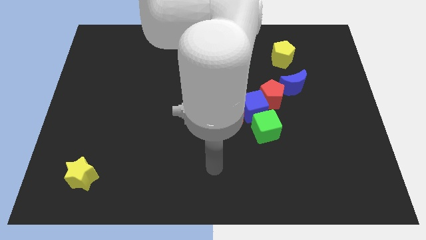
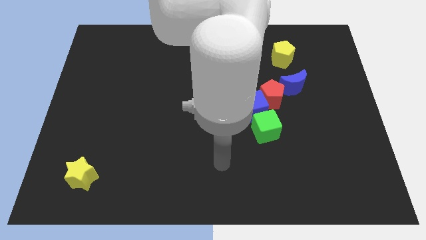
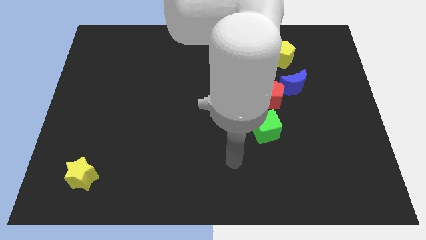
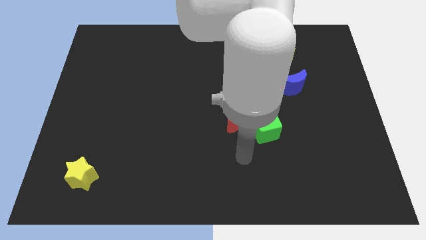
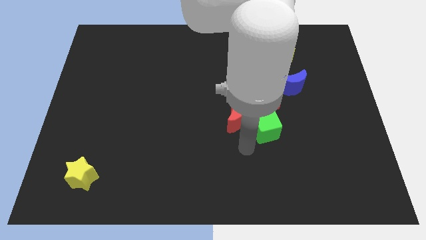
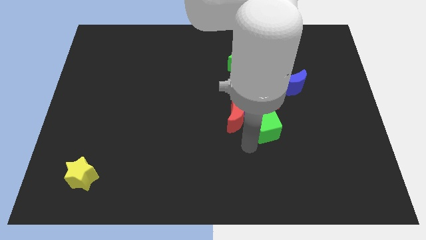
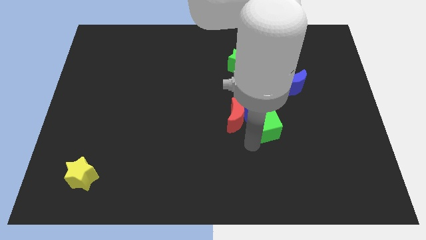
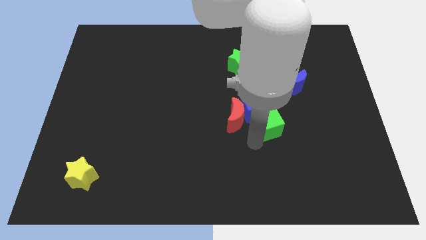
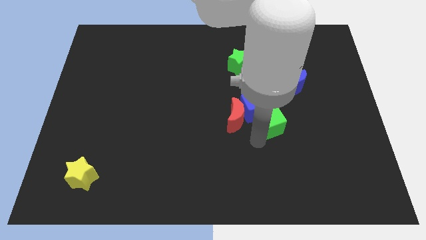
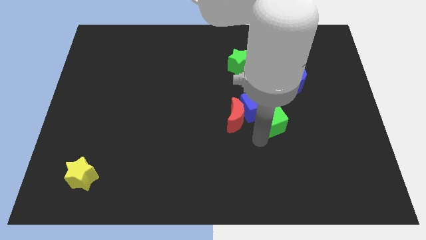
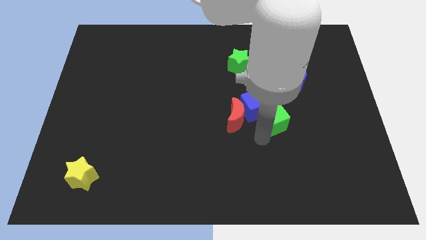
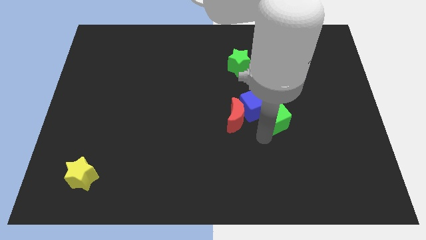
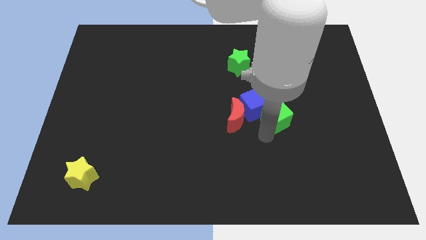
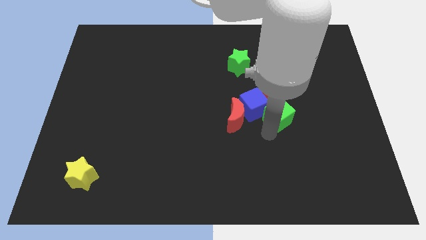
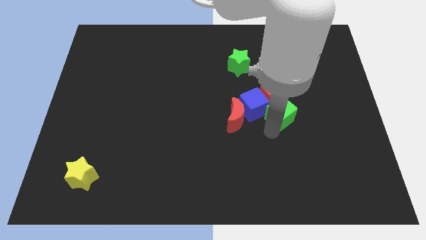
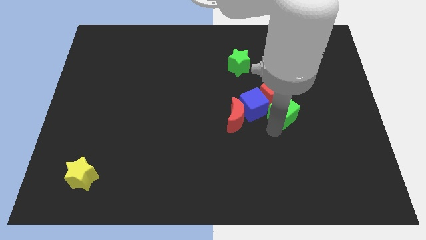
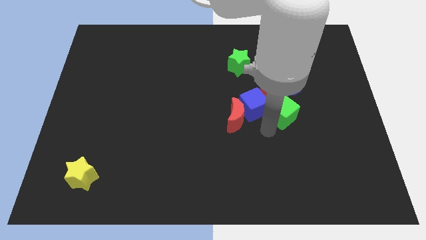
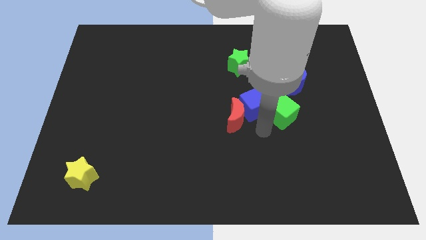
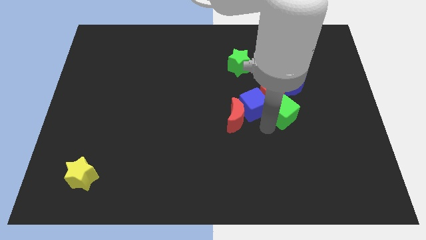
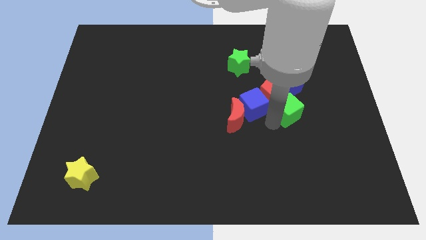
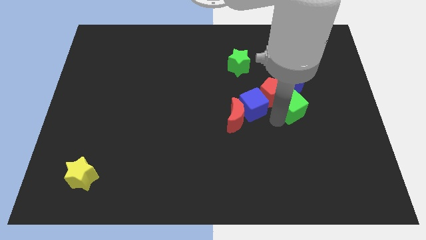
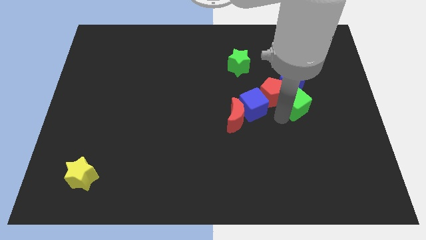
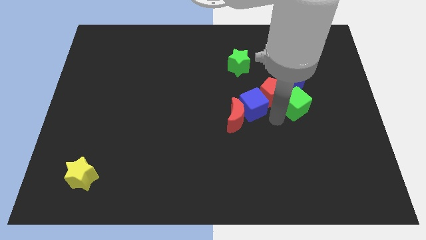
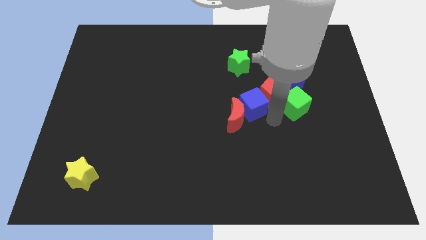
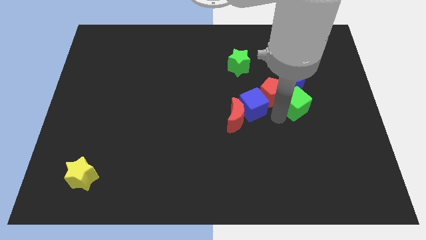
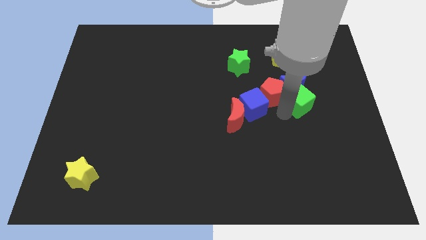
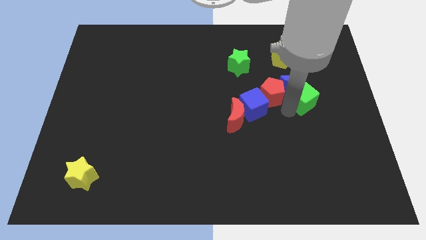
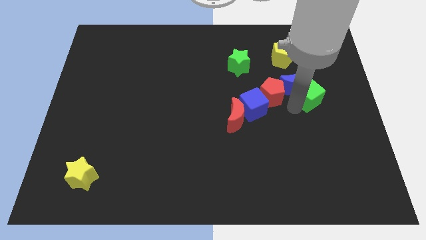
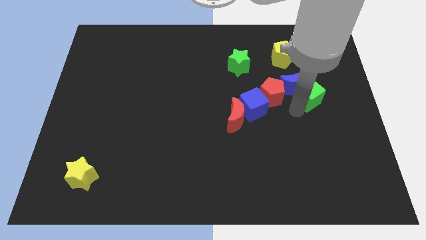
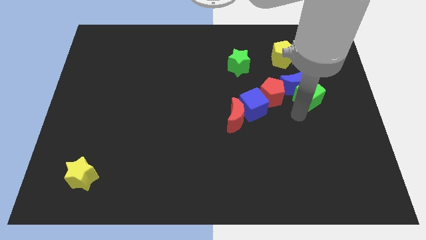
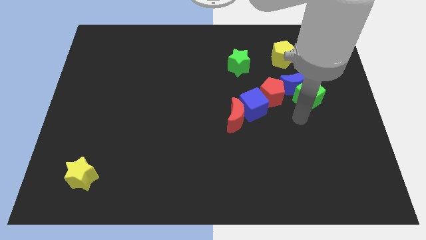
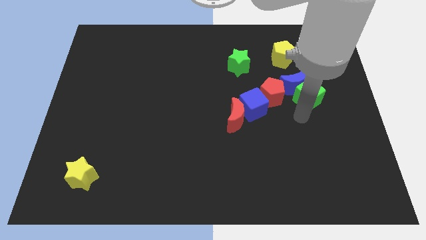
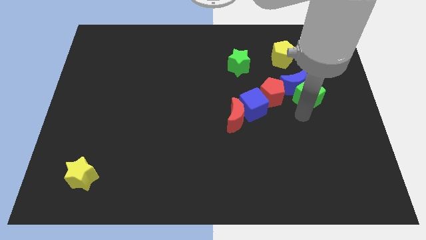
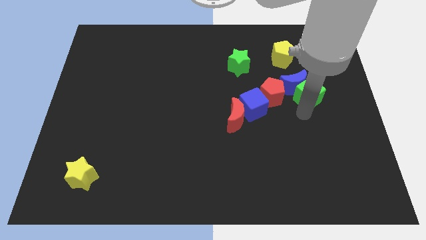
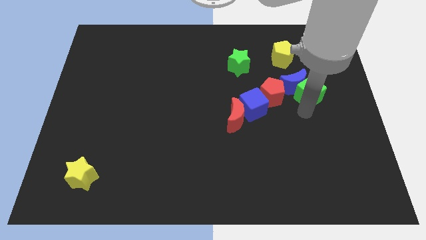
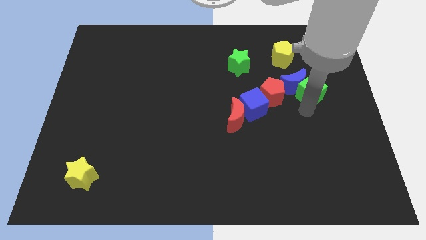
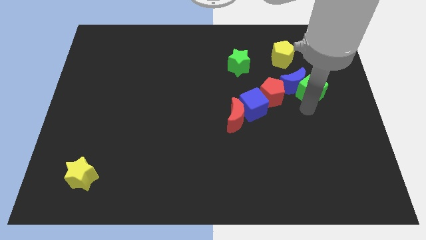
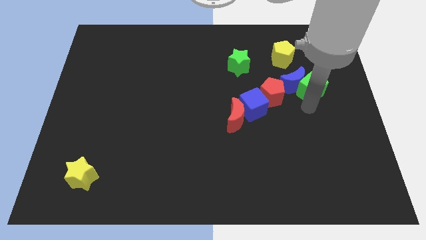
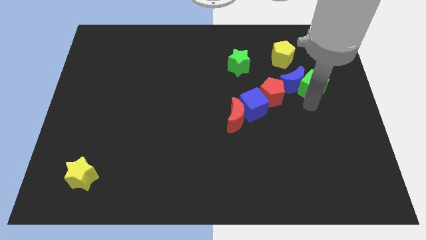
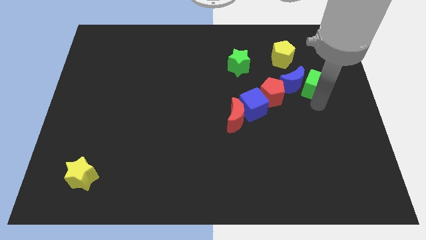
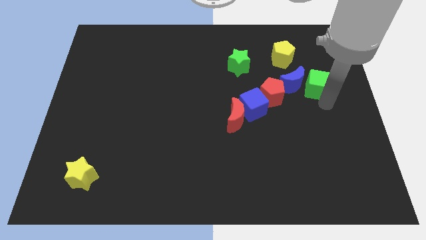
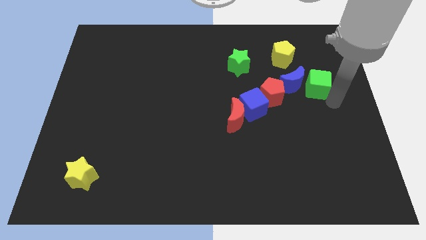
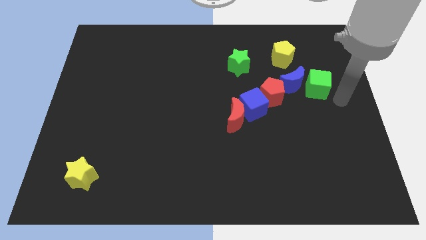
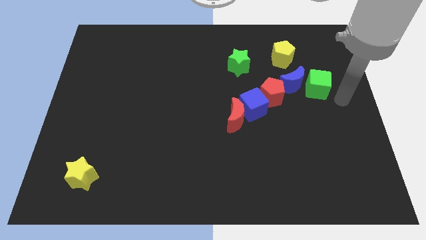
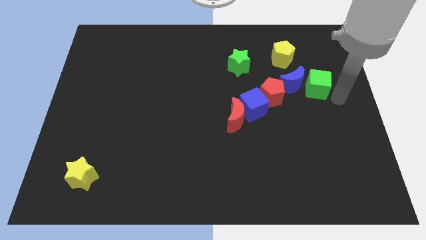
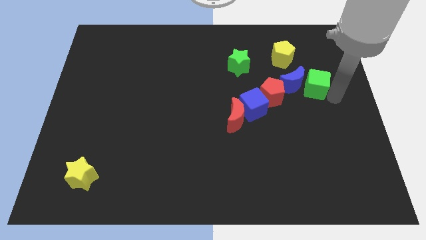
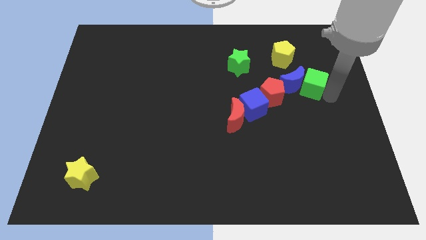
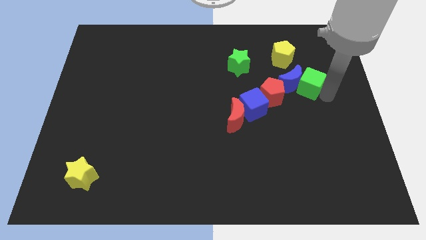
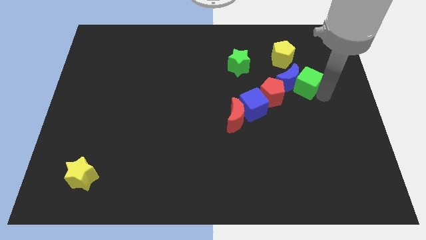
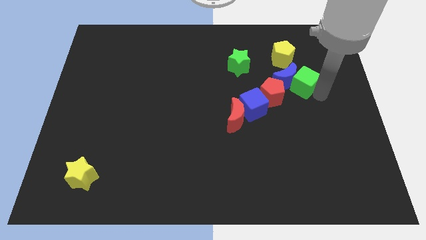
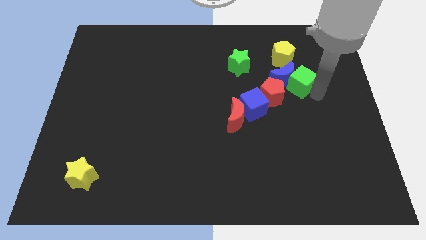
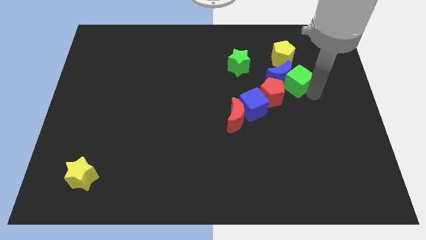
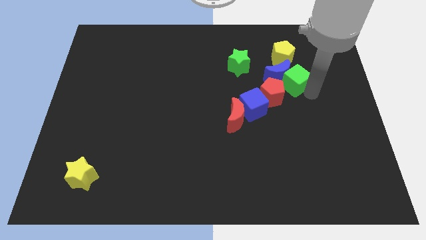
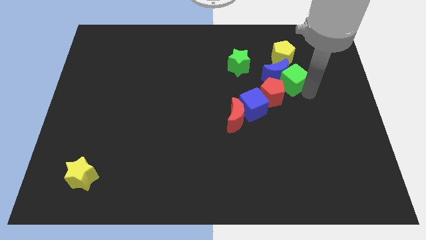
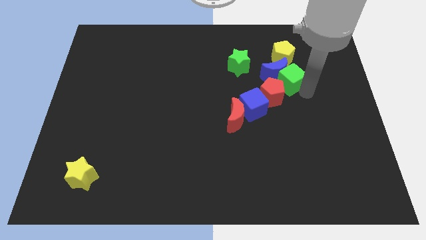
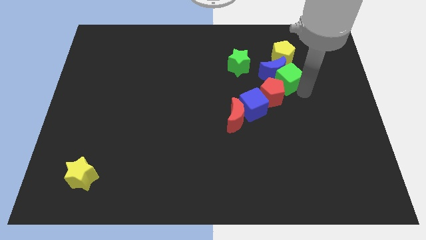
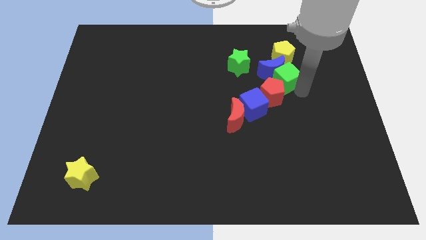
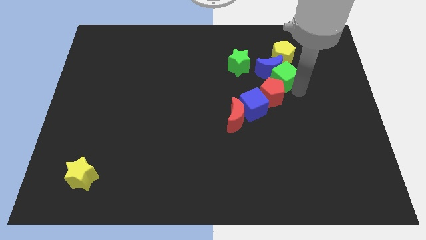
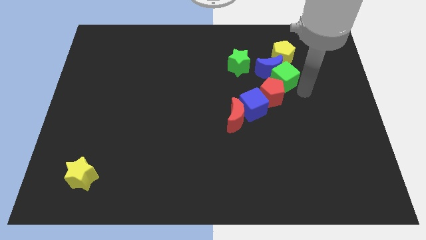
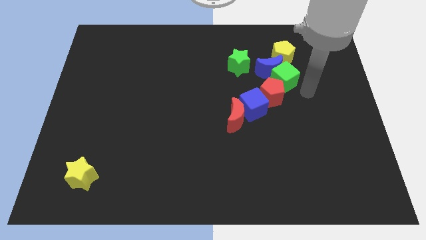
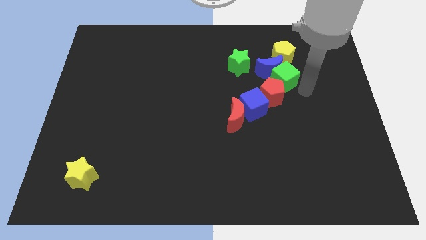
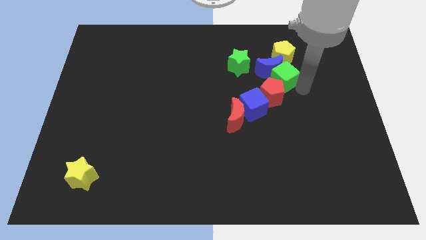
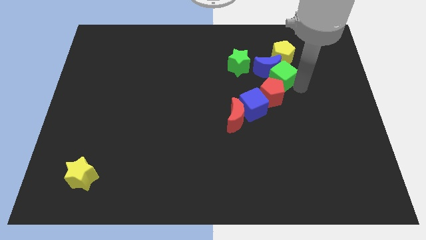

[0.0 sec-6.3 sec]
slide the green cube diagonally down and to the left of the yellow pentagon

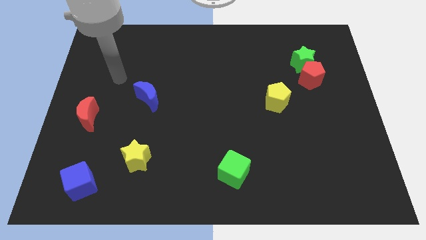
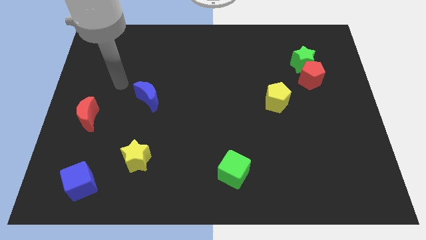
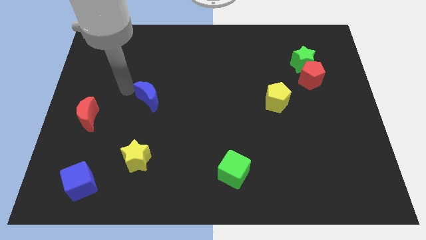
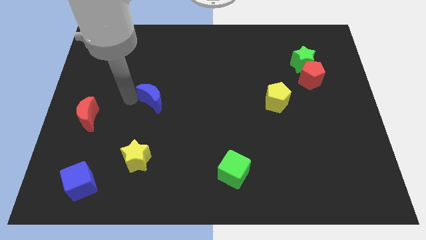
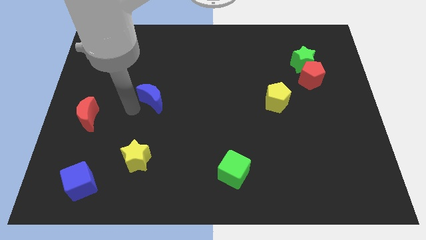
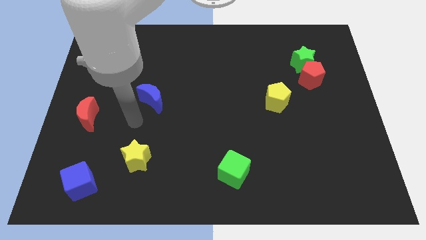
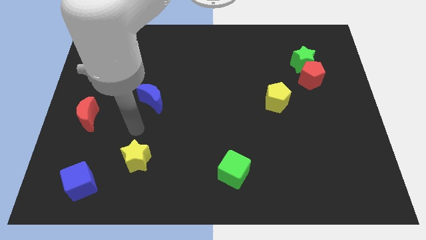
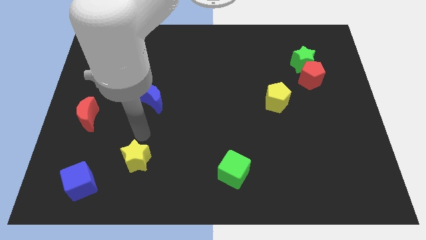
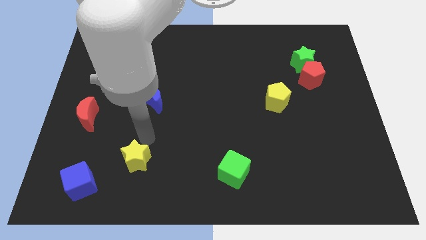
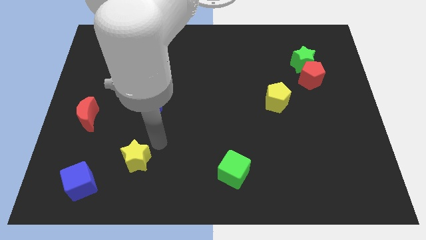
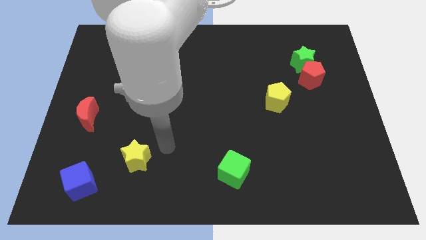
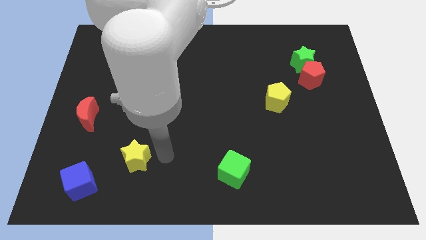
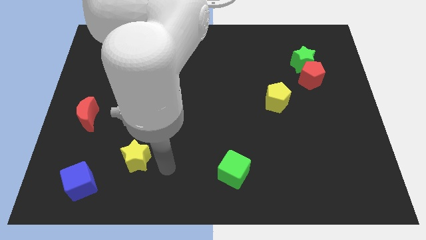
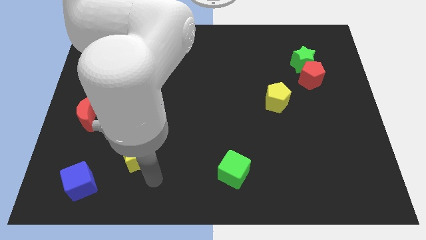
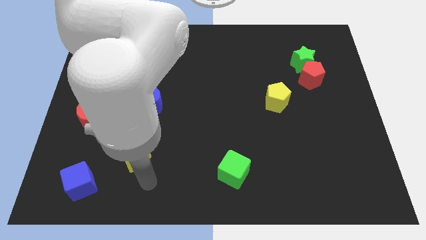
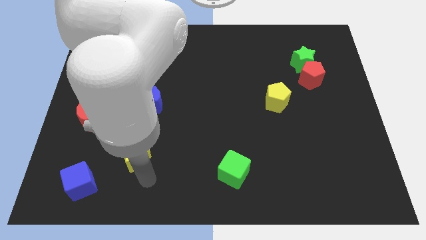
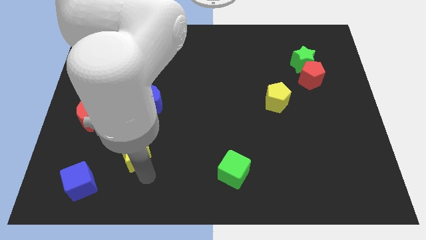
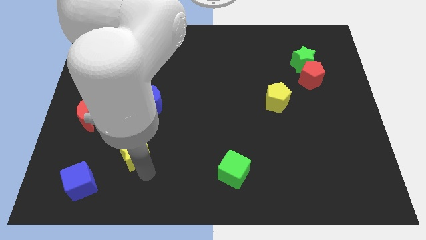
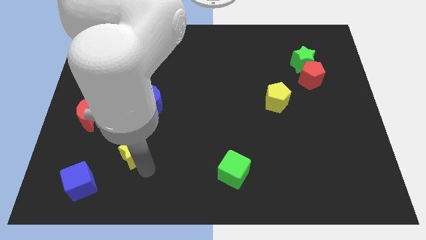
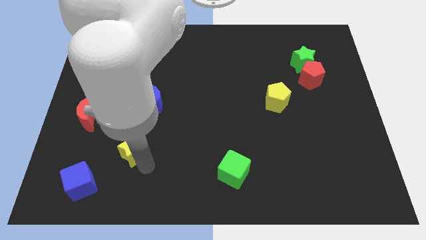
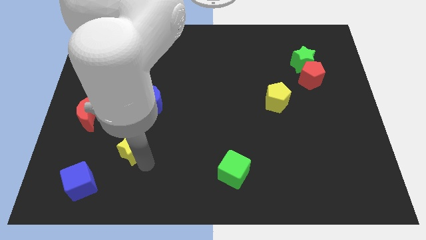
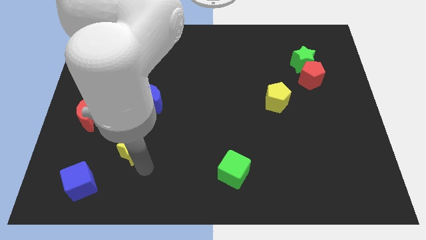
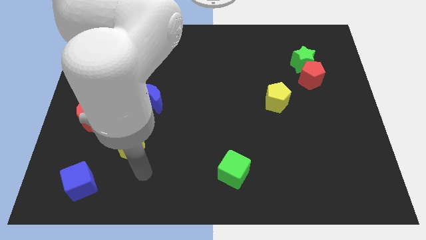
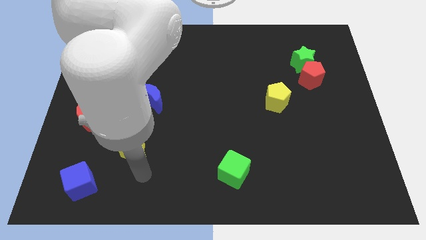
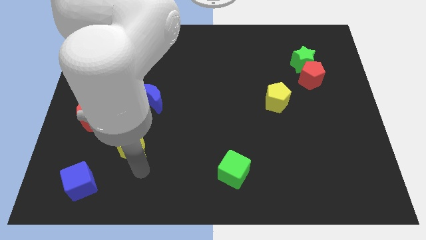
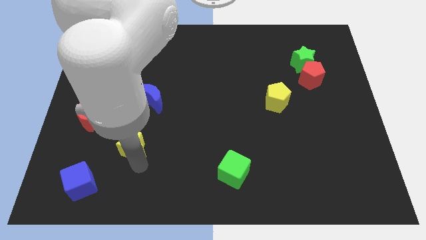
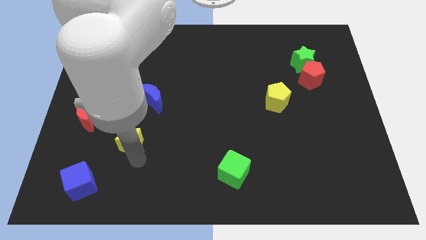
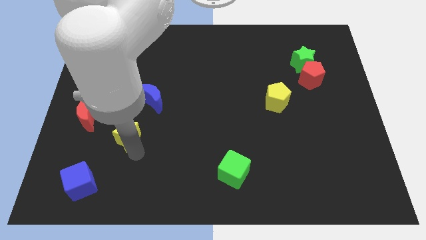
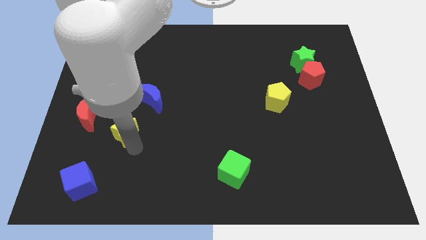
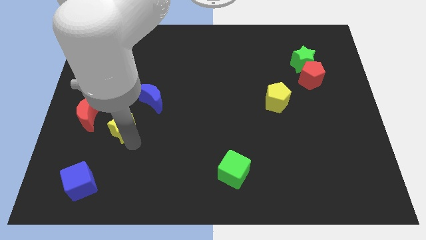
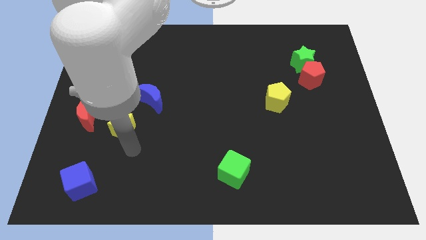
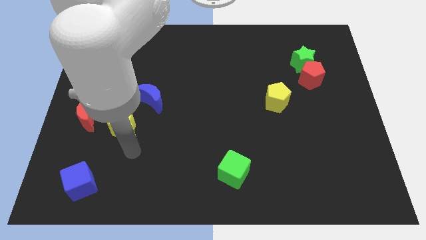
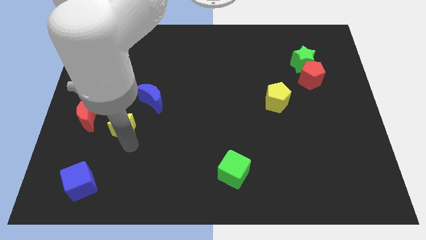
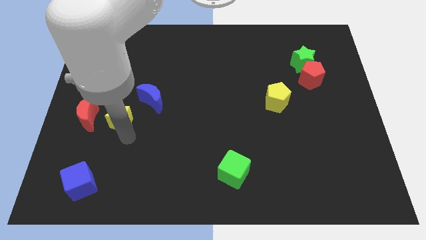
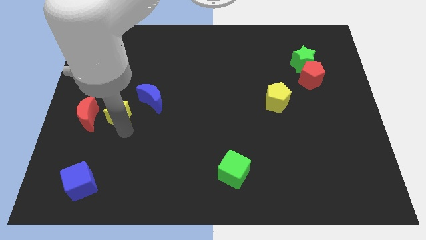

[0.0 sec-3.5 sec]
push the yellow star diagonally up and to the right of the red moon
